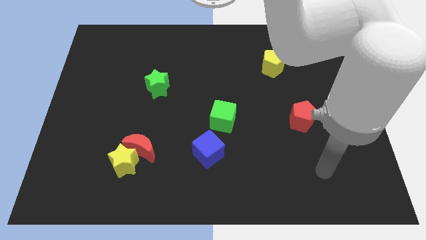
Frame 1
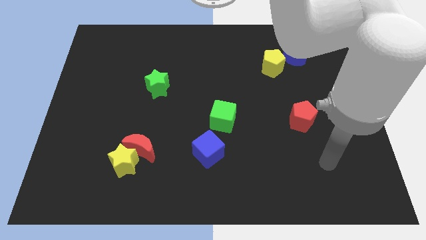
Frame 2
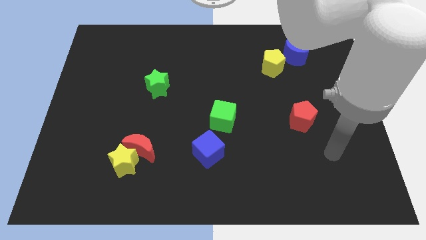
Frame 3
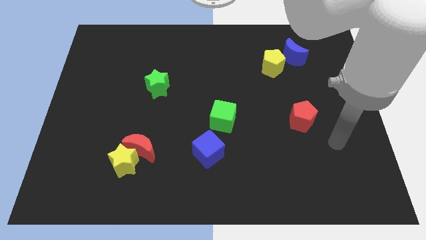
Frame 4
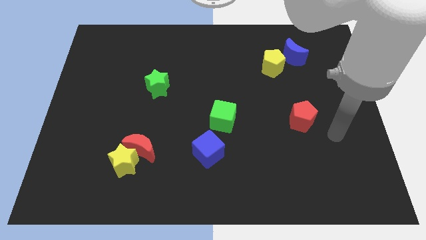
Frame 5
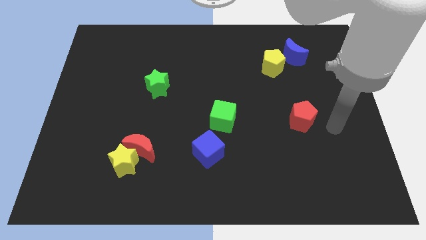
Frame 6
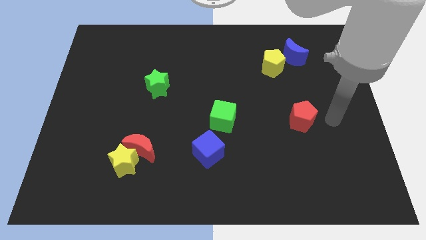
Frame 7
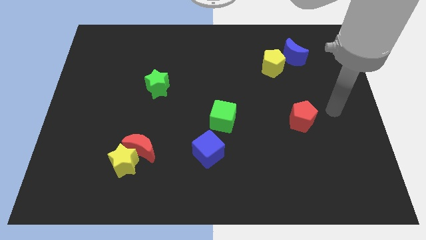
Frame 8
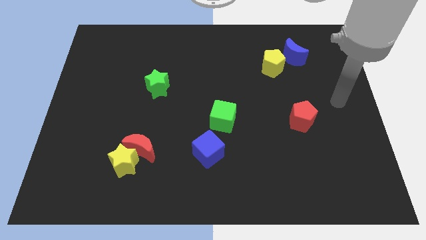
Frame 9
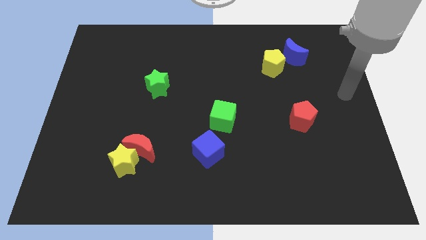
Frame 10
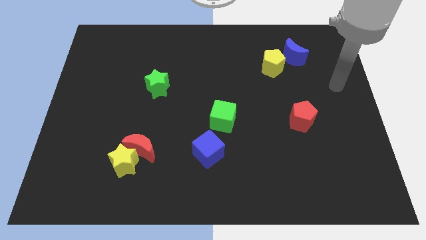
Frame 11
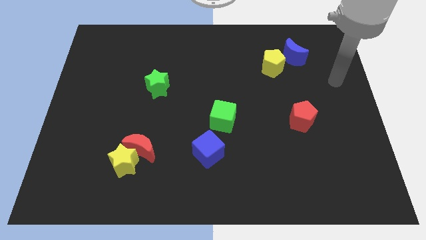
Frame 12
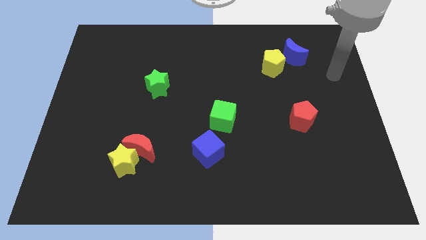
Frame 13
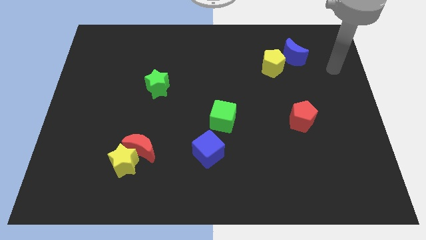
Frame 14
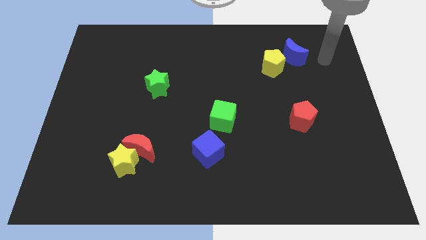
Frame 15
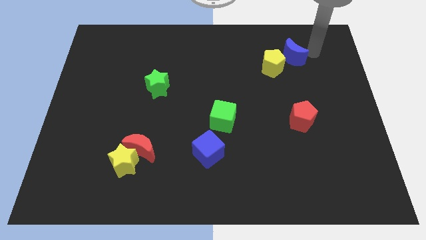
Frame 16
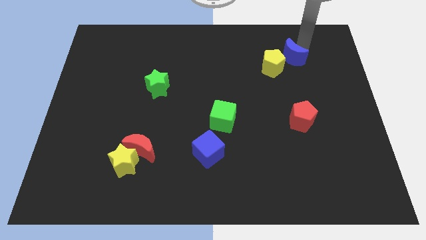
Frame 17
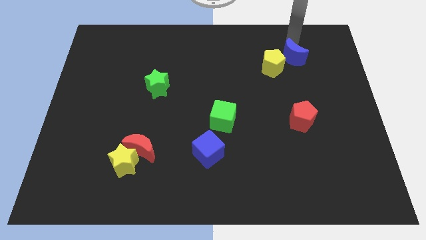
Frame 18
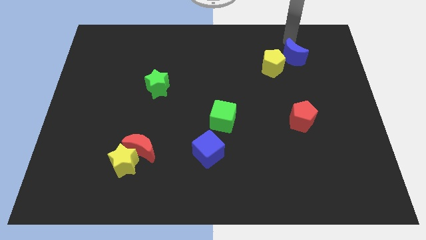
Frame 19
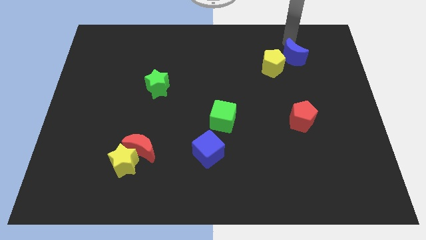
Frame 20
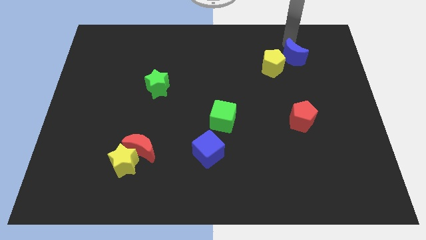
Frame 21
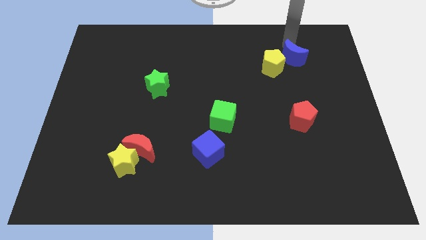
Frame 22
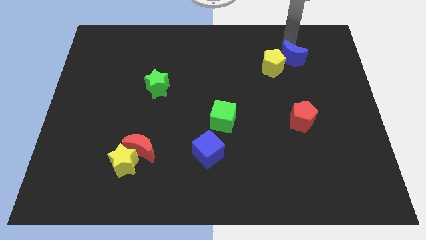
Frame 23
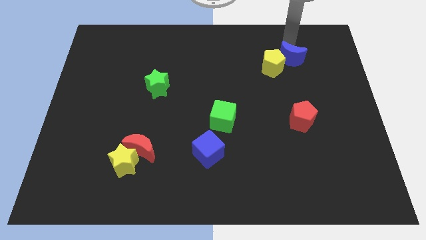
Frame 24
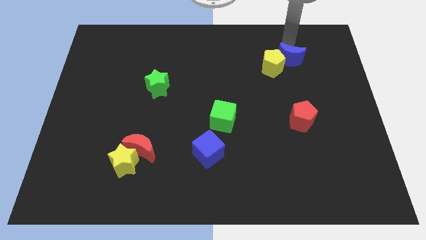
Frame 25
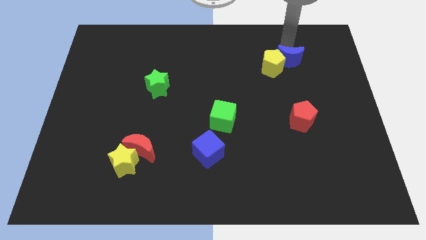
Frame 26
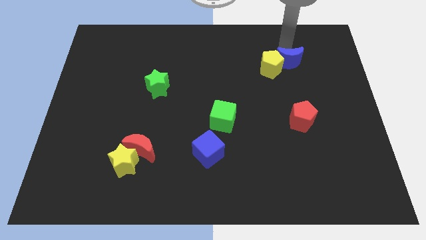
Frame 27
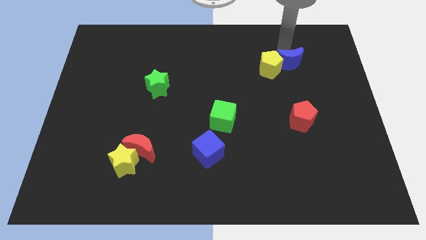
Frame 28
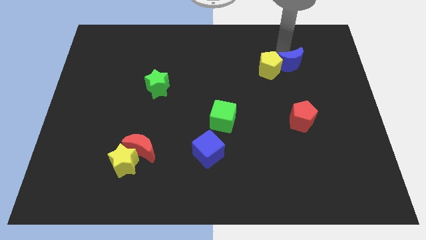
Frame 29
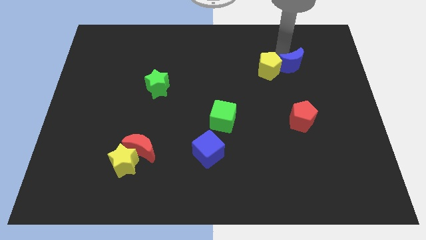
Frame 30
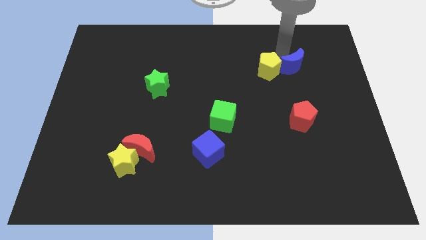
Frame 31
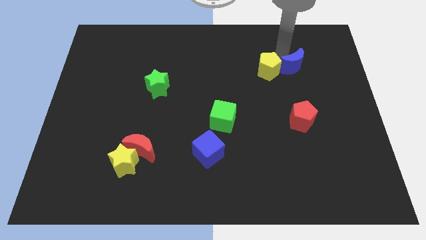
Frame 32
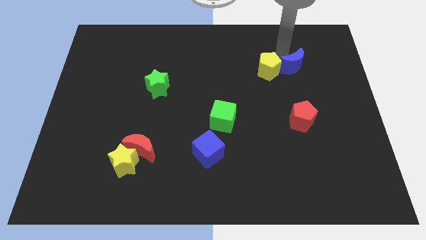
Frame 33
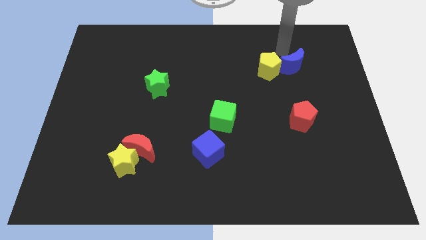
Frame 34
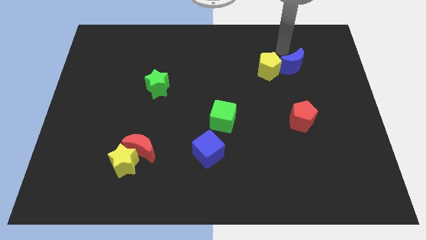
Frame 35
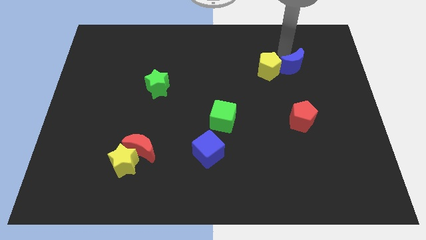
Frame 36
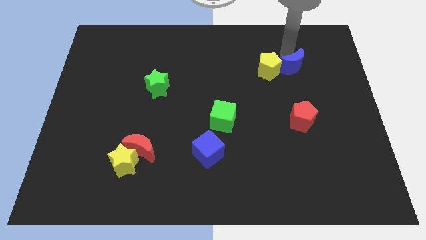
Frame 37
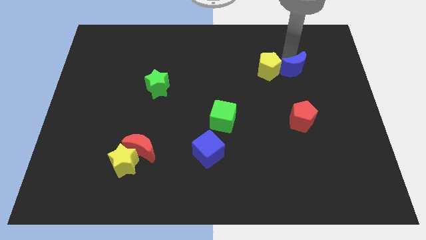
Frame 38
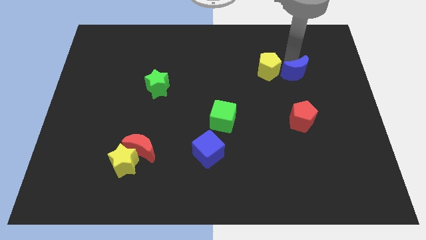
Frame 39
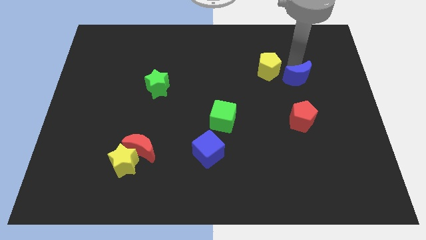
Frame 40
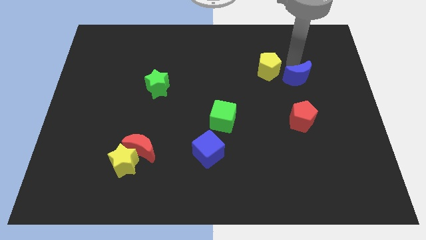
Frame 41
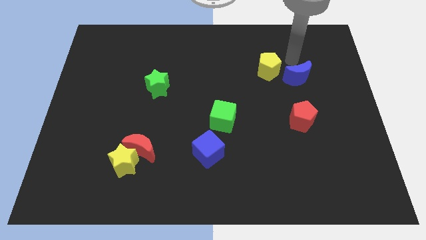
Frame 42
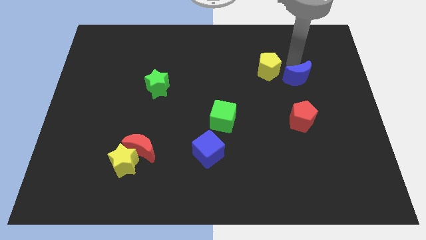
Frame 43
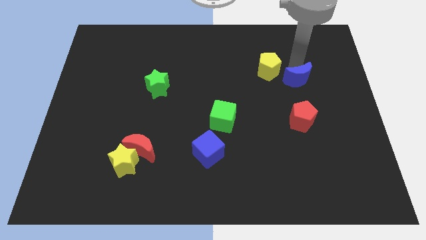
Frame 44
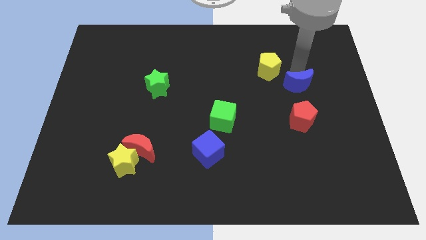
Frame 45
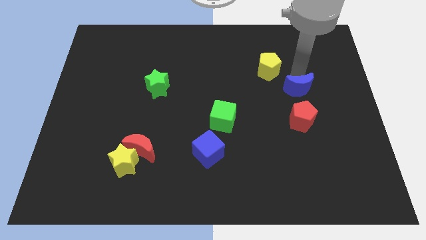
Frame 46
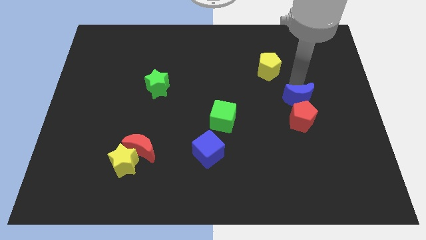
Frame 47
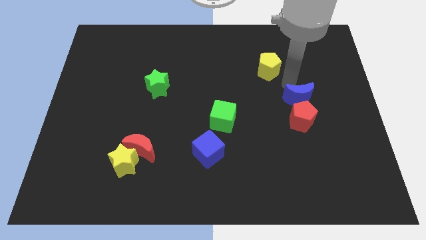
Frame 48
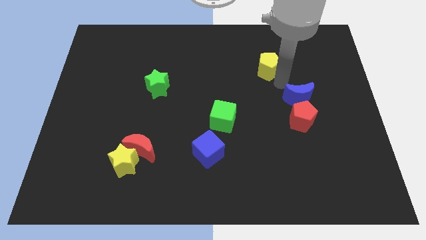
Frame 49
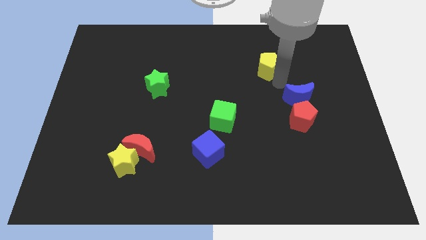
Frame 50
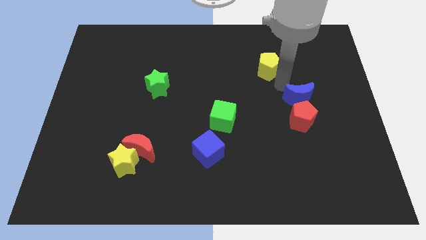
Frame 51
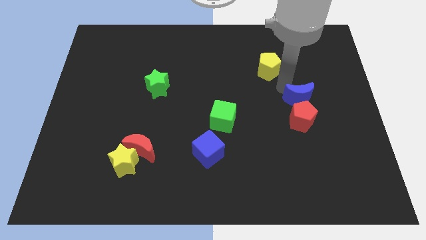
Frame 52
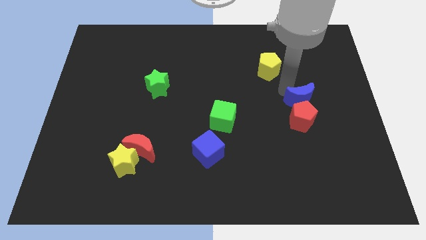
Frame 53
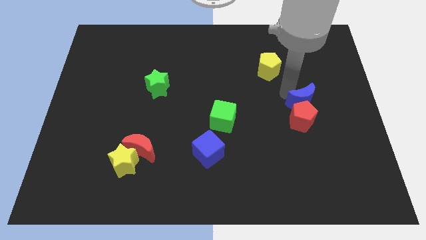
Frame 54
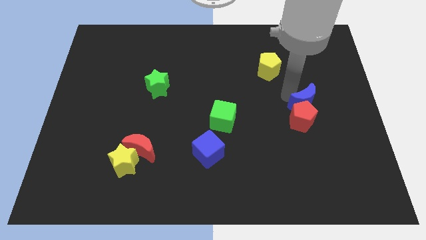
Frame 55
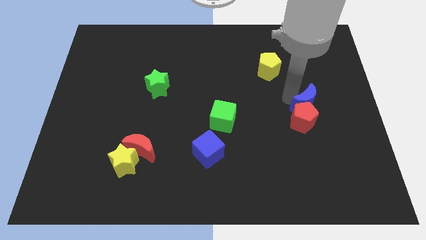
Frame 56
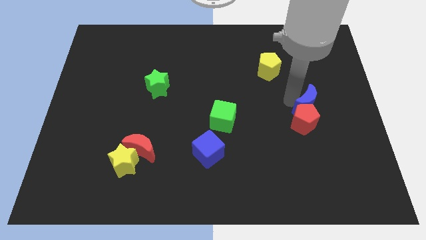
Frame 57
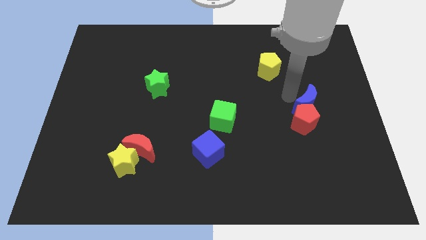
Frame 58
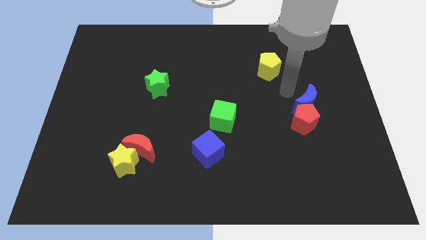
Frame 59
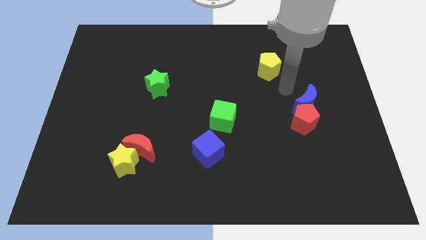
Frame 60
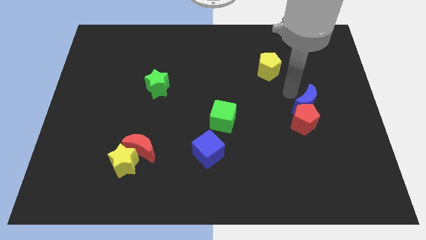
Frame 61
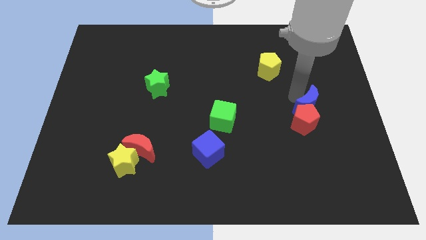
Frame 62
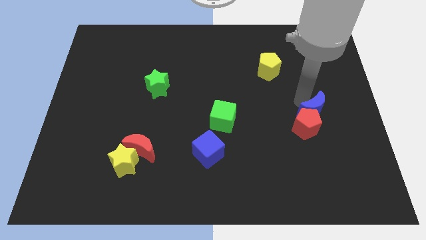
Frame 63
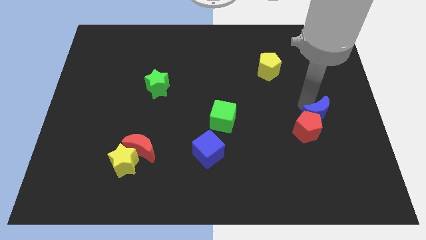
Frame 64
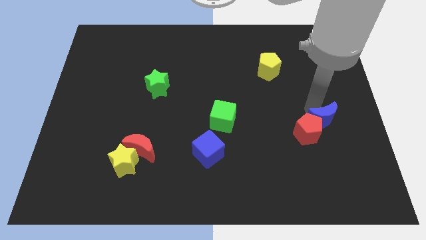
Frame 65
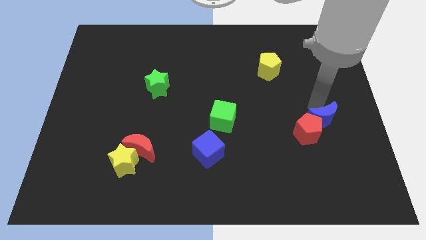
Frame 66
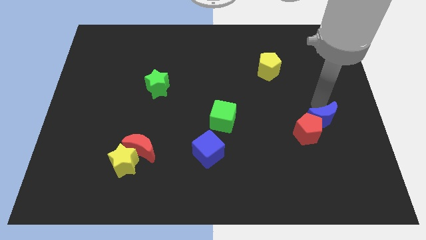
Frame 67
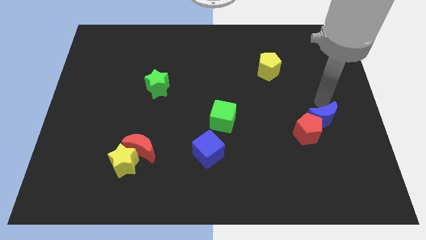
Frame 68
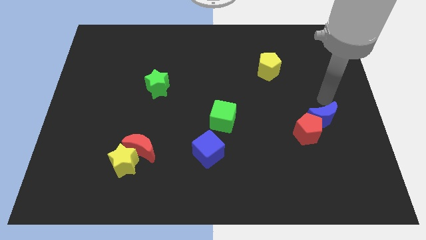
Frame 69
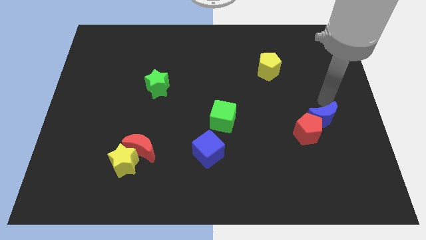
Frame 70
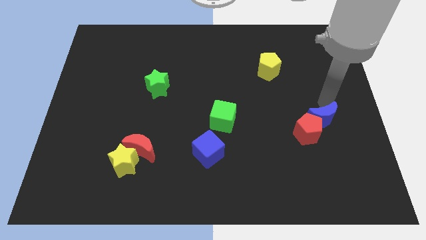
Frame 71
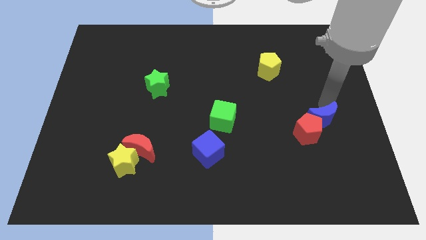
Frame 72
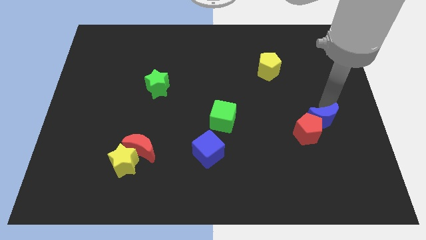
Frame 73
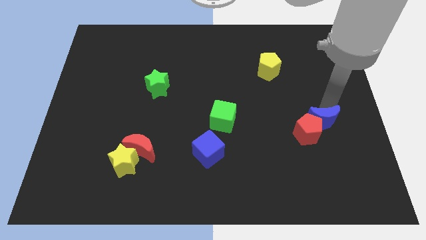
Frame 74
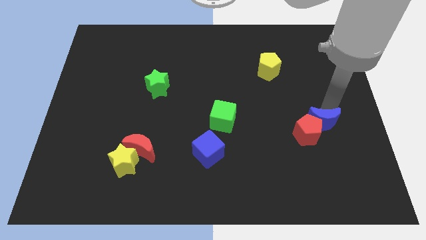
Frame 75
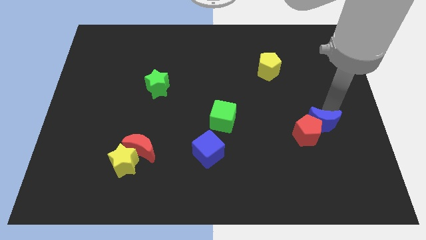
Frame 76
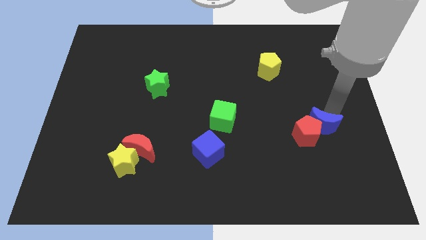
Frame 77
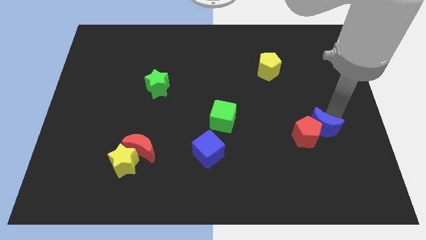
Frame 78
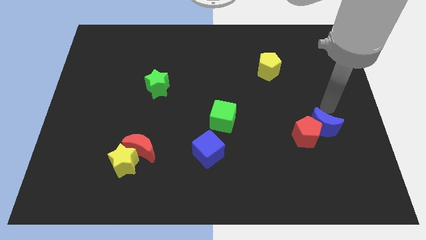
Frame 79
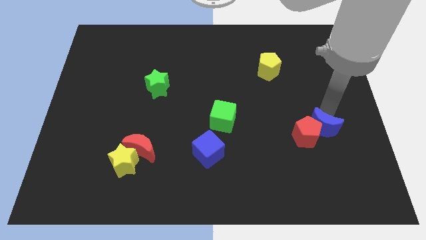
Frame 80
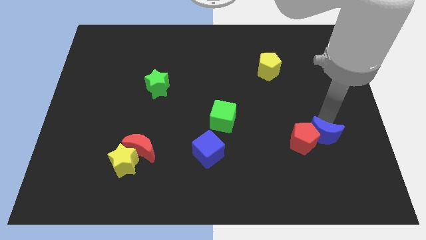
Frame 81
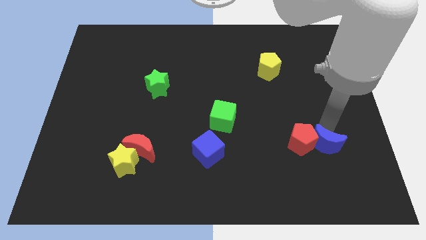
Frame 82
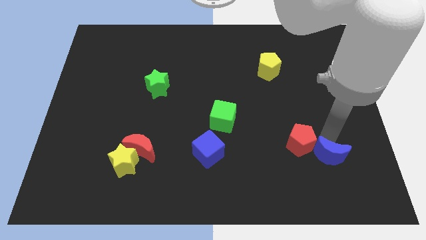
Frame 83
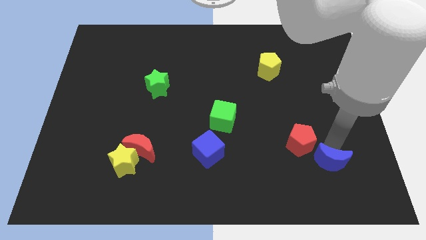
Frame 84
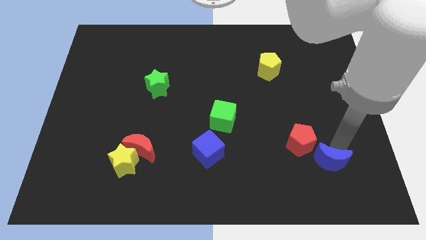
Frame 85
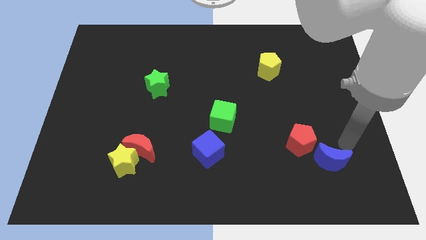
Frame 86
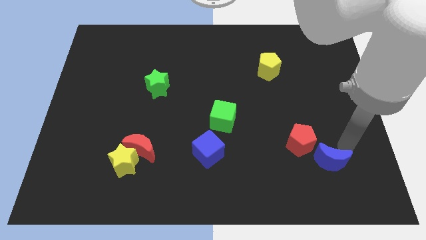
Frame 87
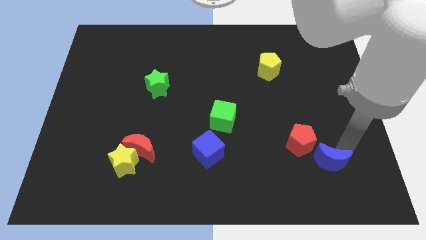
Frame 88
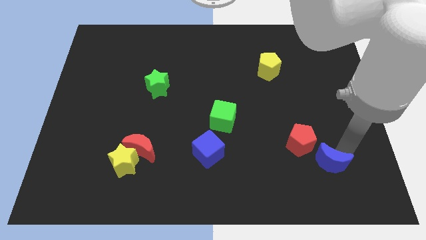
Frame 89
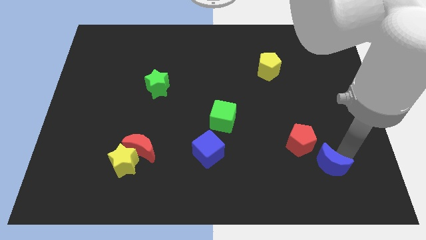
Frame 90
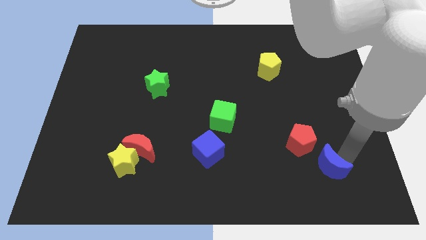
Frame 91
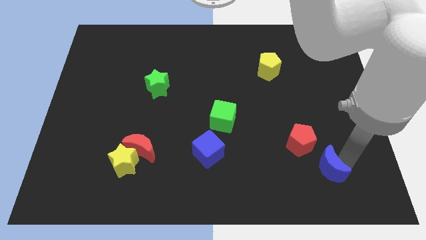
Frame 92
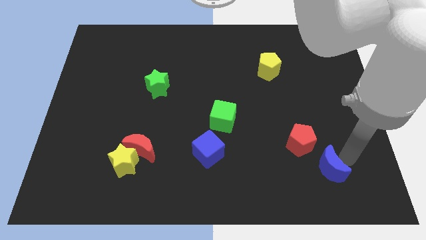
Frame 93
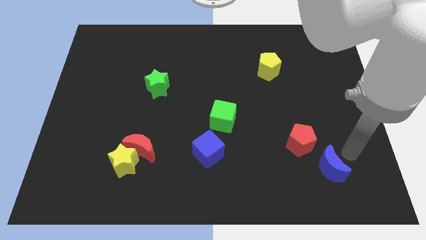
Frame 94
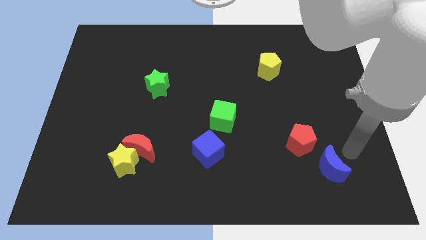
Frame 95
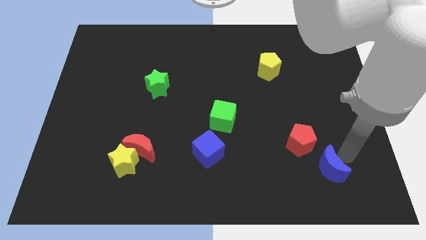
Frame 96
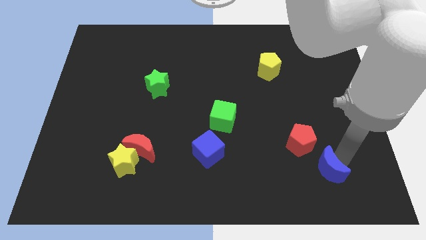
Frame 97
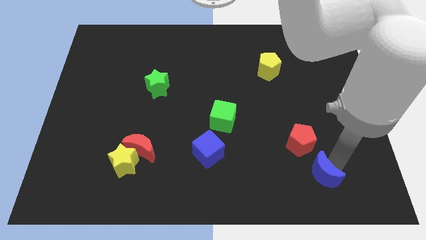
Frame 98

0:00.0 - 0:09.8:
move the blue moon to the bottom side of the red pentagon
